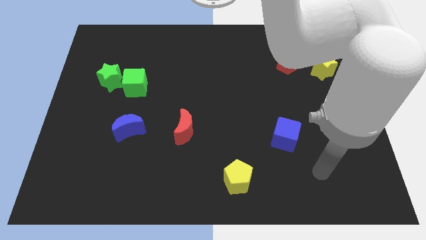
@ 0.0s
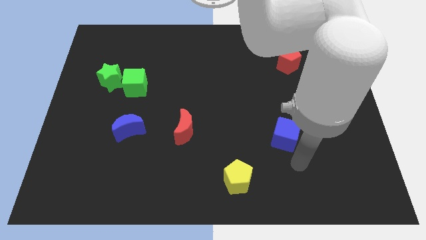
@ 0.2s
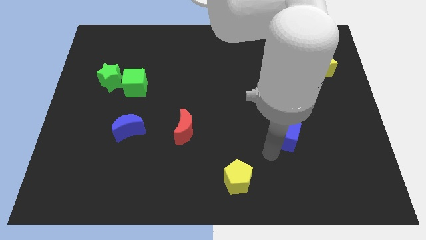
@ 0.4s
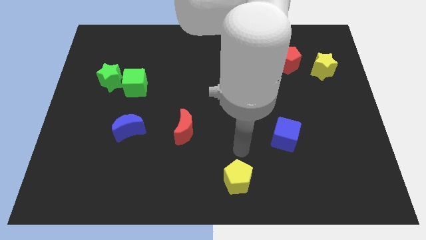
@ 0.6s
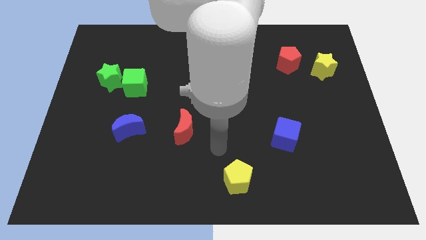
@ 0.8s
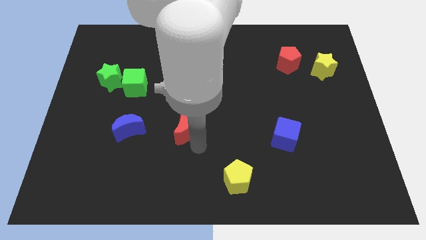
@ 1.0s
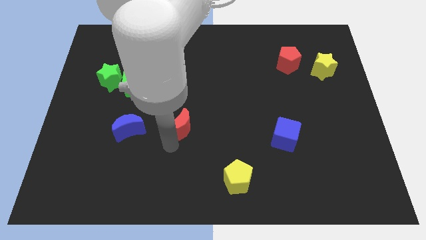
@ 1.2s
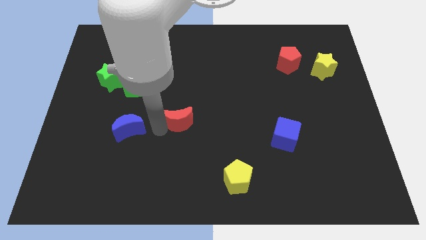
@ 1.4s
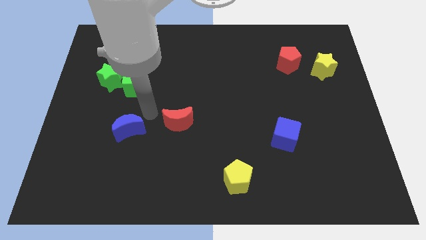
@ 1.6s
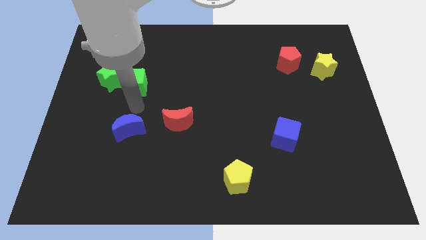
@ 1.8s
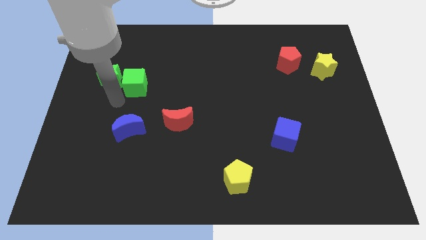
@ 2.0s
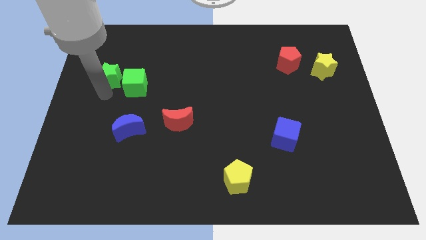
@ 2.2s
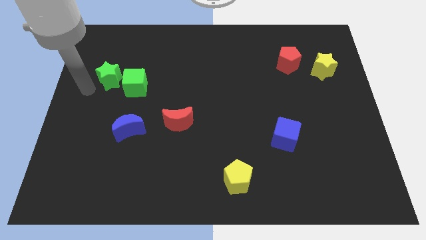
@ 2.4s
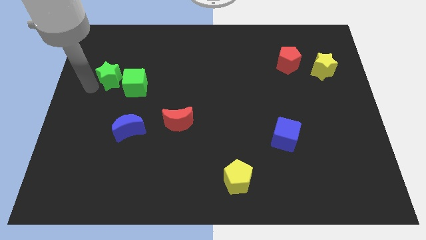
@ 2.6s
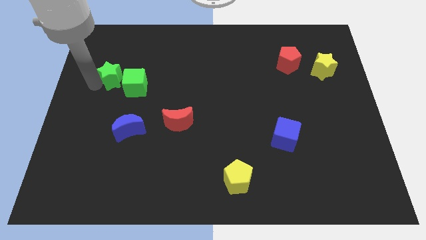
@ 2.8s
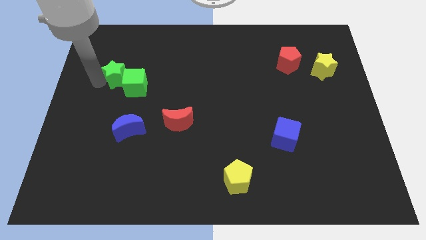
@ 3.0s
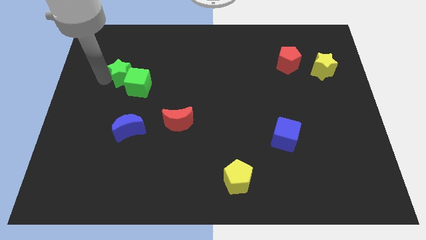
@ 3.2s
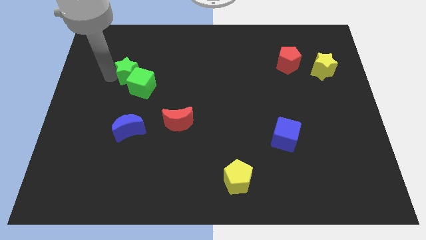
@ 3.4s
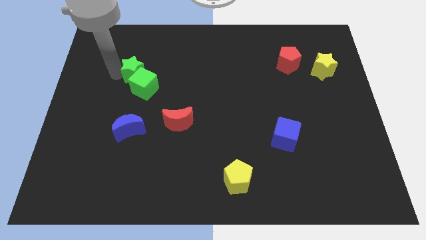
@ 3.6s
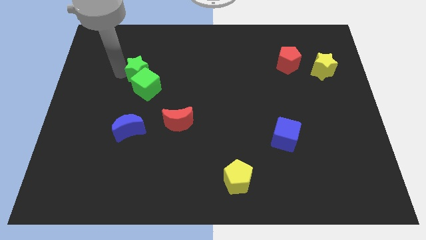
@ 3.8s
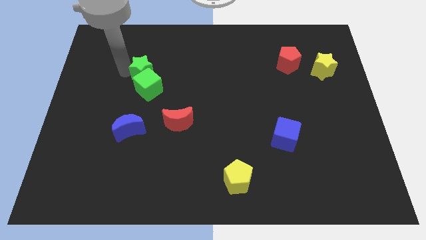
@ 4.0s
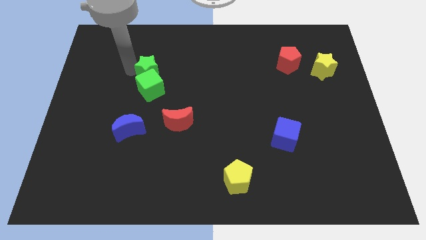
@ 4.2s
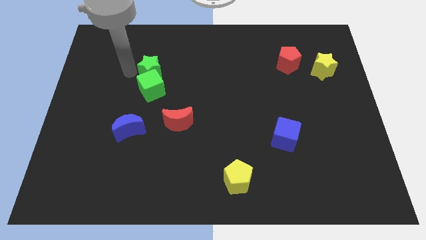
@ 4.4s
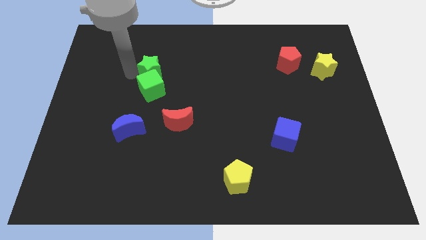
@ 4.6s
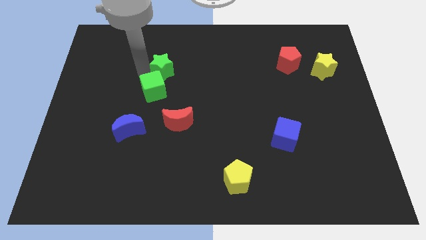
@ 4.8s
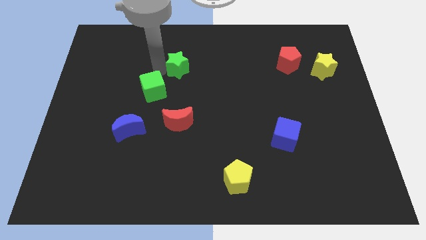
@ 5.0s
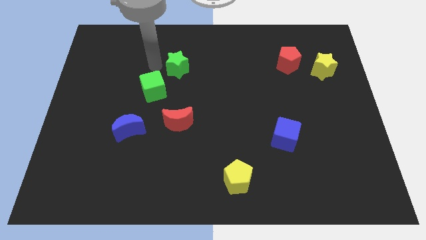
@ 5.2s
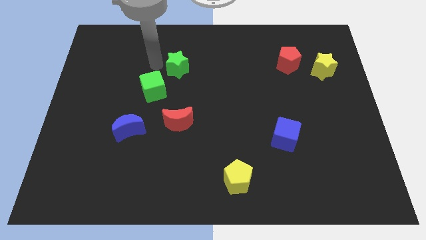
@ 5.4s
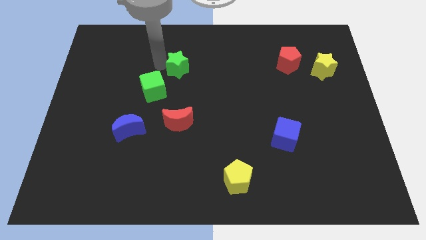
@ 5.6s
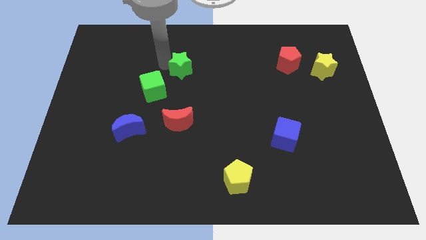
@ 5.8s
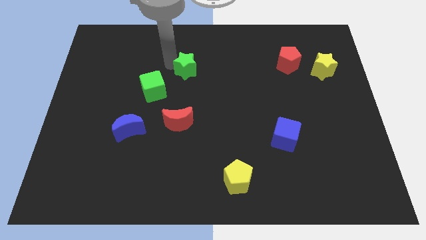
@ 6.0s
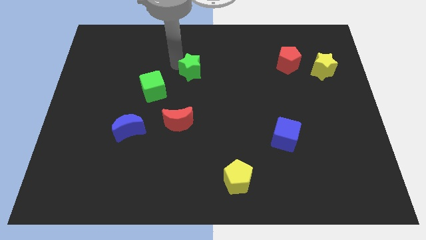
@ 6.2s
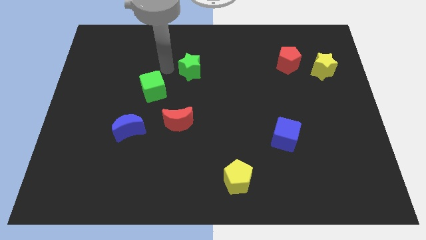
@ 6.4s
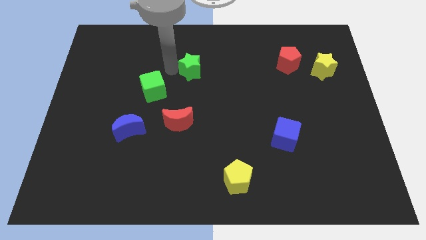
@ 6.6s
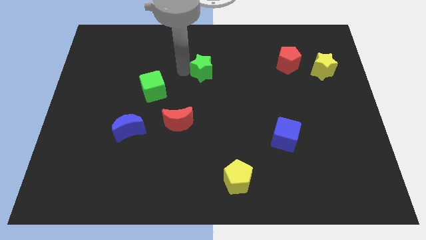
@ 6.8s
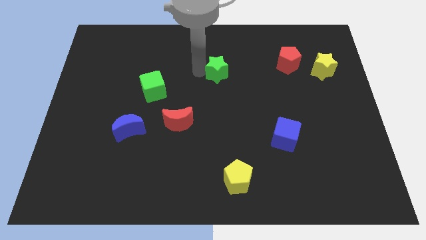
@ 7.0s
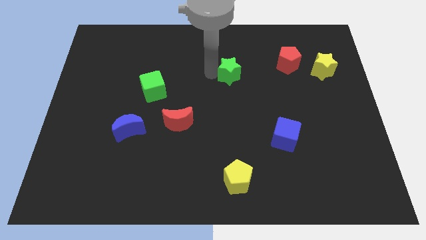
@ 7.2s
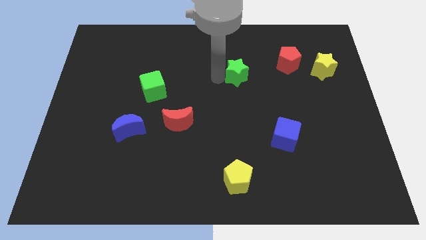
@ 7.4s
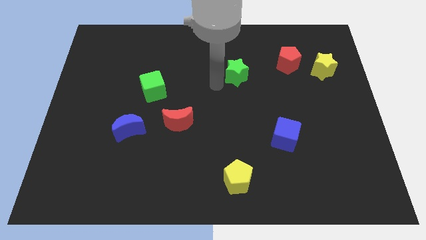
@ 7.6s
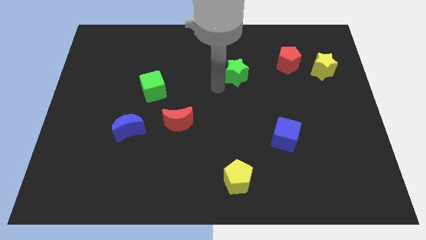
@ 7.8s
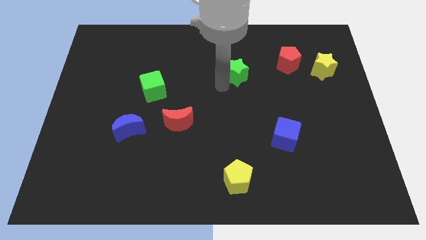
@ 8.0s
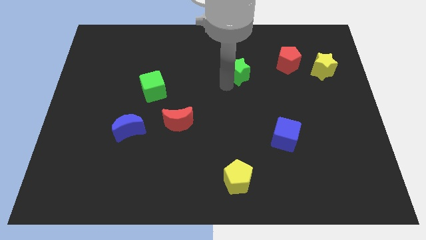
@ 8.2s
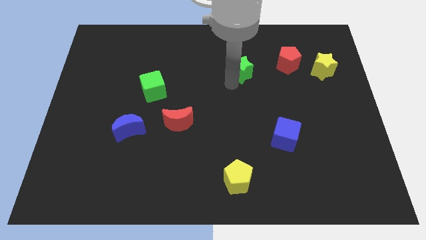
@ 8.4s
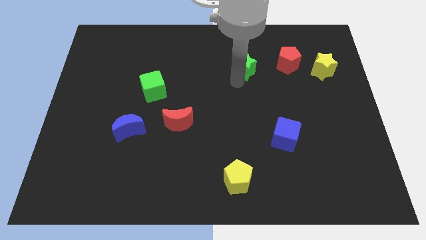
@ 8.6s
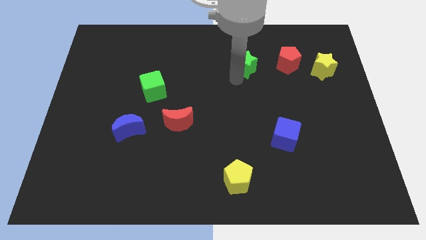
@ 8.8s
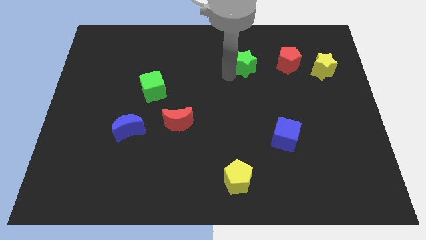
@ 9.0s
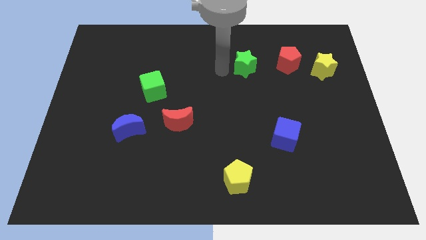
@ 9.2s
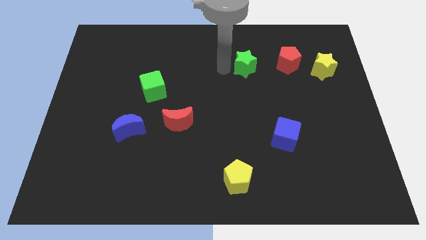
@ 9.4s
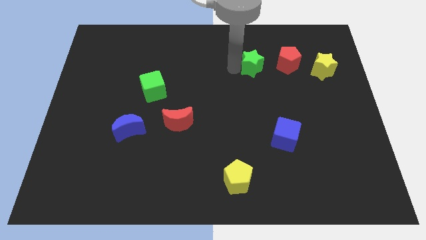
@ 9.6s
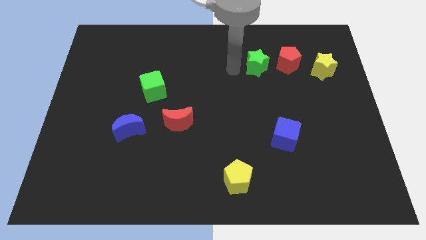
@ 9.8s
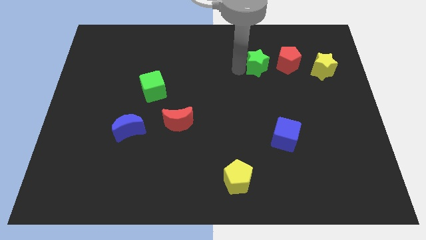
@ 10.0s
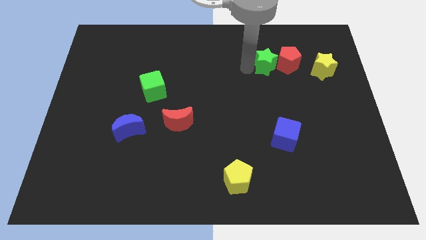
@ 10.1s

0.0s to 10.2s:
move the green star close to the red pentagon

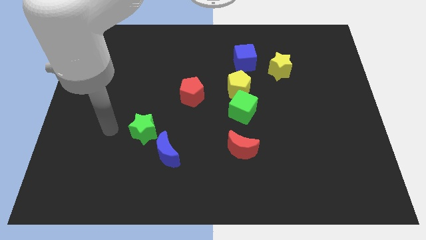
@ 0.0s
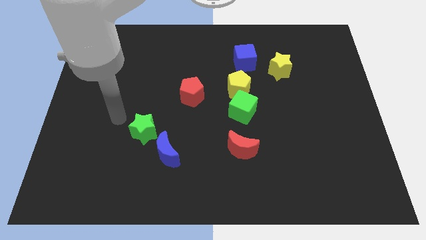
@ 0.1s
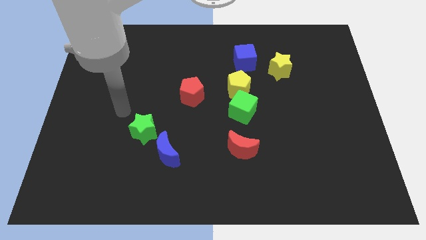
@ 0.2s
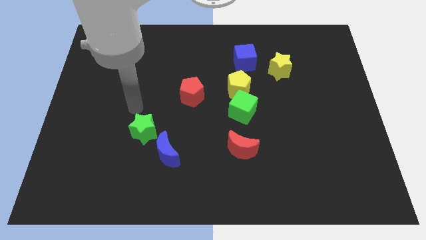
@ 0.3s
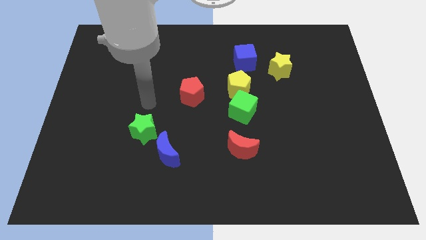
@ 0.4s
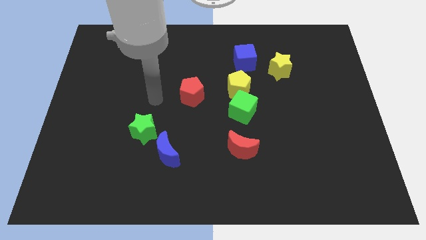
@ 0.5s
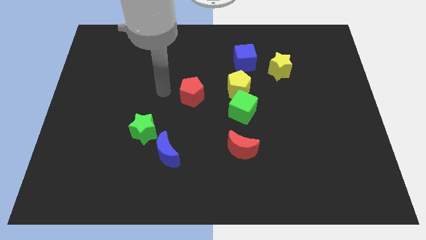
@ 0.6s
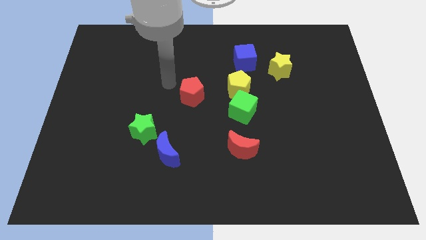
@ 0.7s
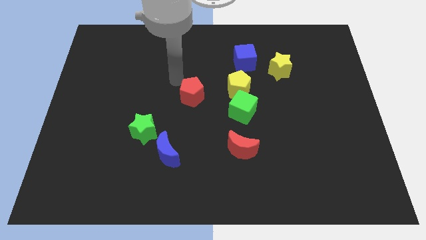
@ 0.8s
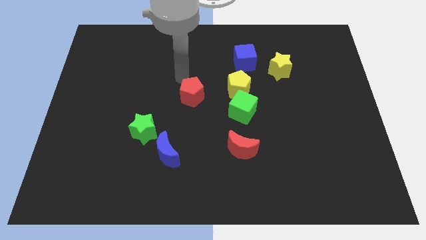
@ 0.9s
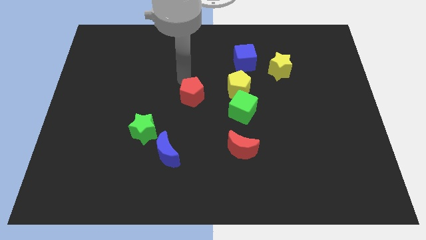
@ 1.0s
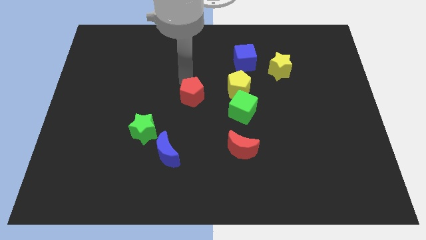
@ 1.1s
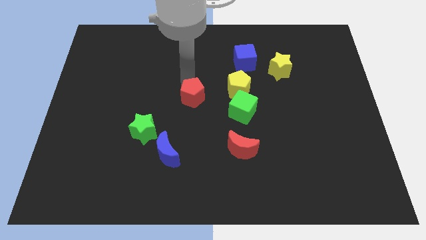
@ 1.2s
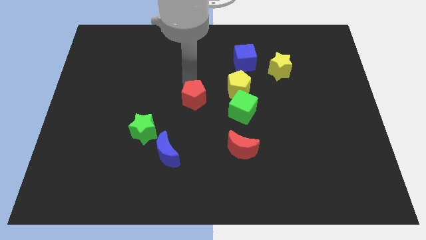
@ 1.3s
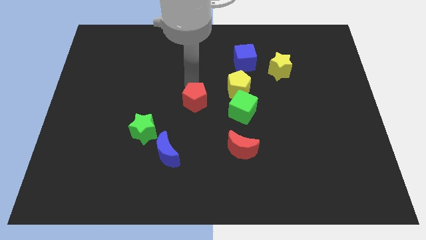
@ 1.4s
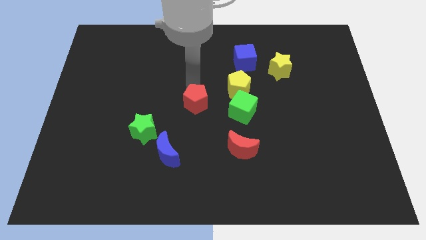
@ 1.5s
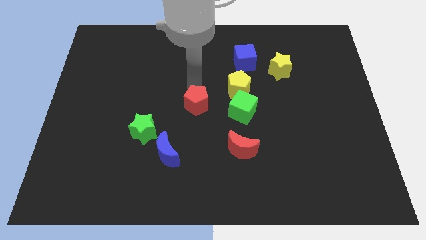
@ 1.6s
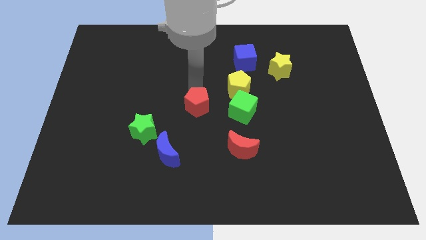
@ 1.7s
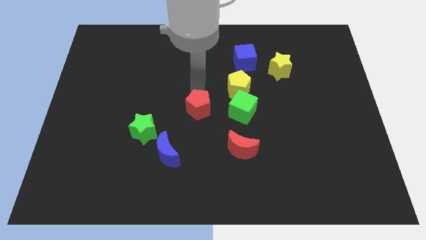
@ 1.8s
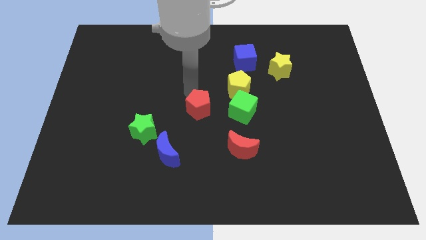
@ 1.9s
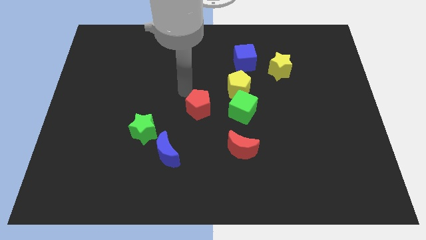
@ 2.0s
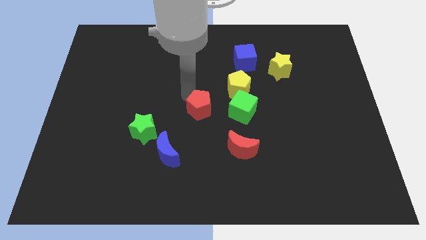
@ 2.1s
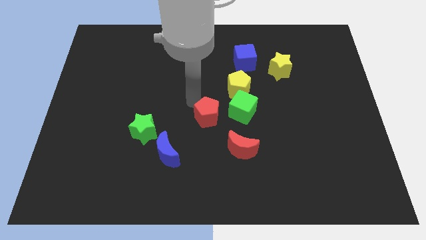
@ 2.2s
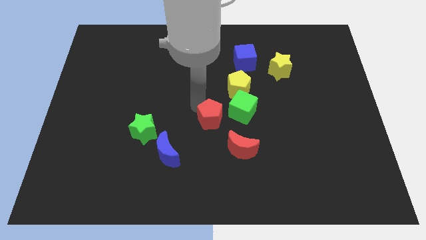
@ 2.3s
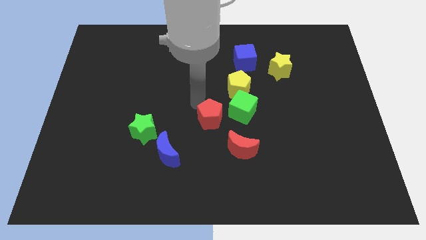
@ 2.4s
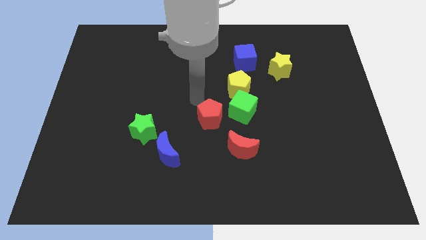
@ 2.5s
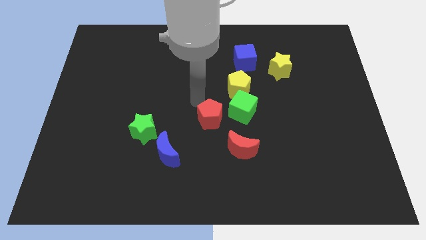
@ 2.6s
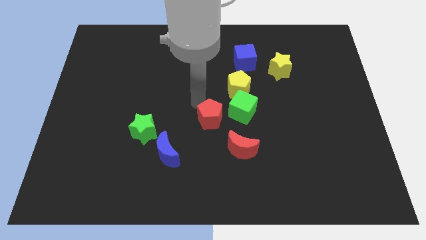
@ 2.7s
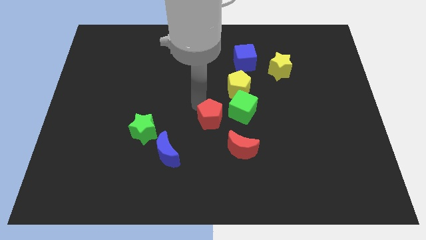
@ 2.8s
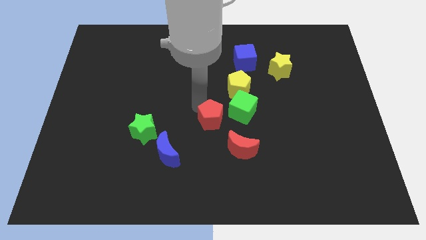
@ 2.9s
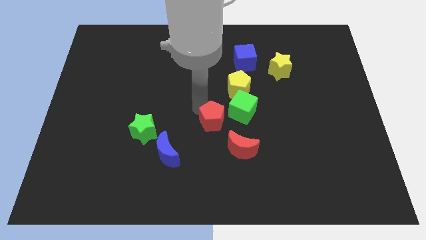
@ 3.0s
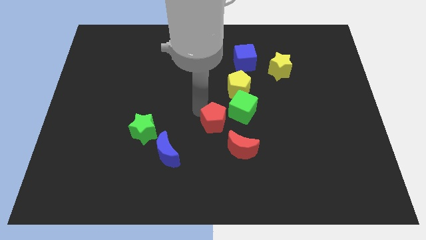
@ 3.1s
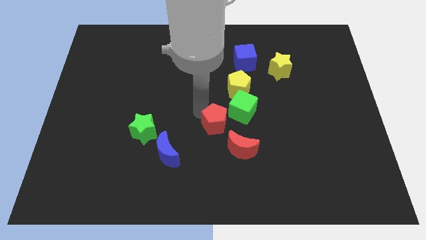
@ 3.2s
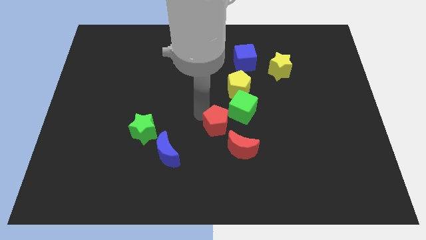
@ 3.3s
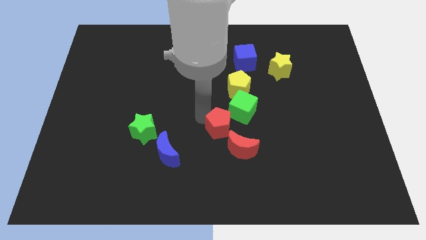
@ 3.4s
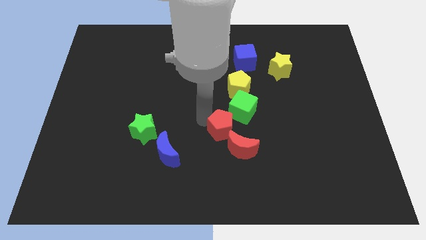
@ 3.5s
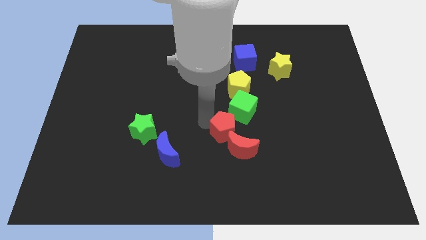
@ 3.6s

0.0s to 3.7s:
slide the red pentagon towards the red moon
